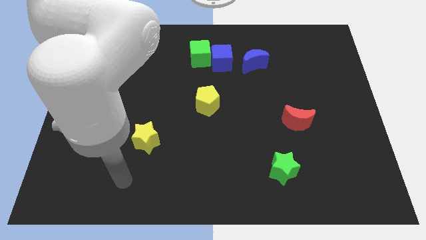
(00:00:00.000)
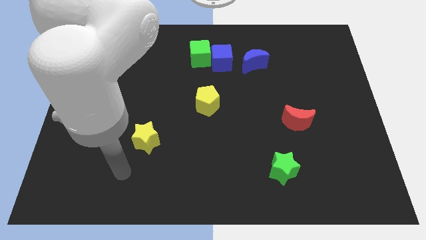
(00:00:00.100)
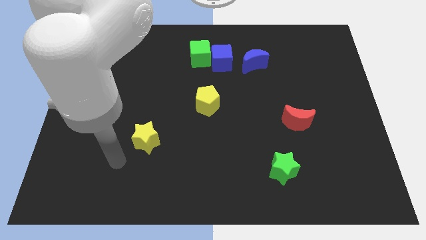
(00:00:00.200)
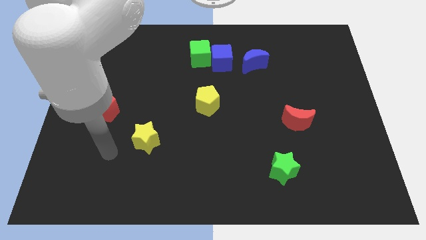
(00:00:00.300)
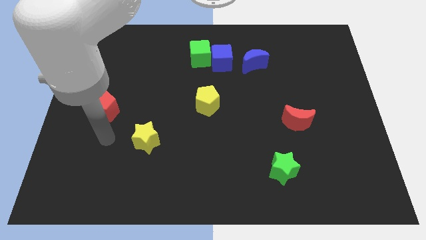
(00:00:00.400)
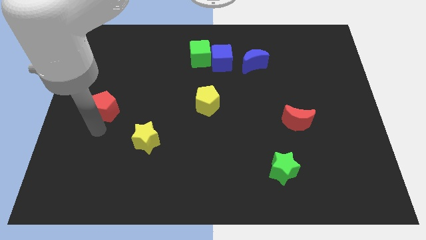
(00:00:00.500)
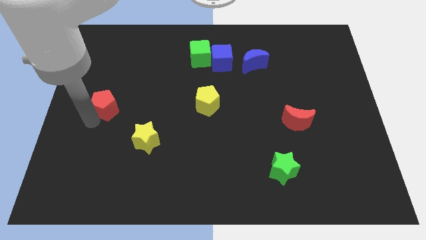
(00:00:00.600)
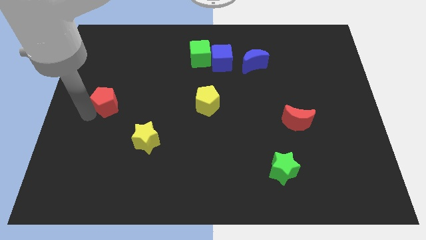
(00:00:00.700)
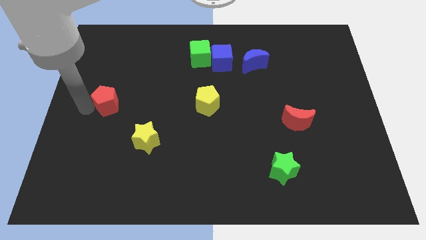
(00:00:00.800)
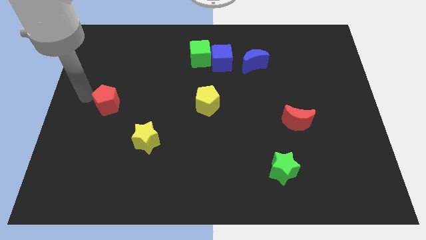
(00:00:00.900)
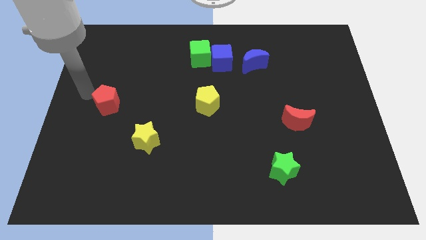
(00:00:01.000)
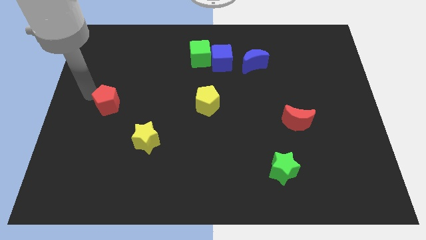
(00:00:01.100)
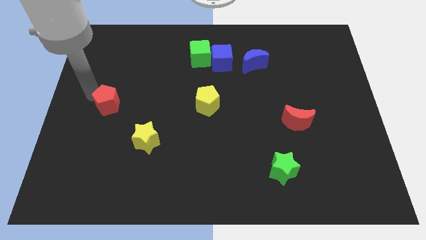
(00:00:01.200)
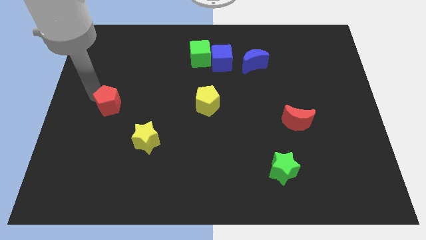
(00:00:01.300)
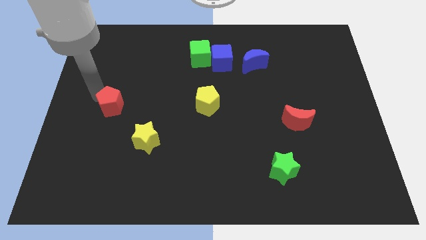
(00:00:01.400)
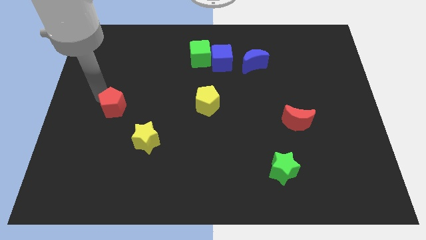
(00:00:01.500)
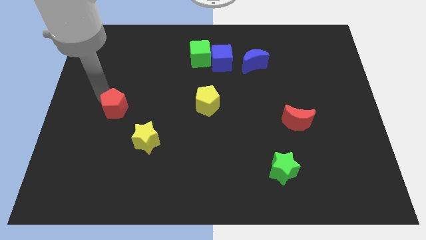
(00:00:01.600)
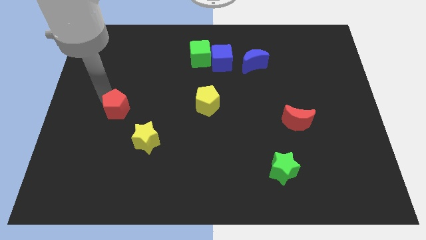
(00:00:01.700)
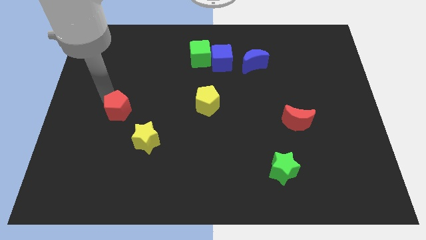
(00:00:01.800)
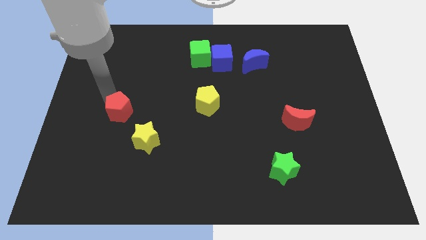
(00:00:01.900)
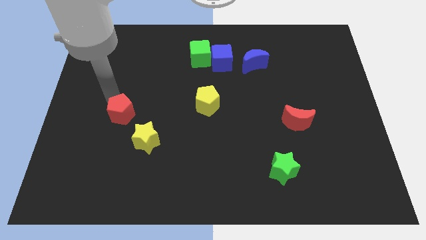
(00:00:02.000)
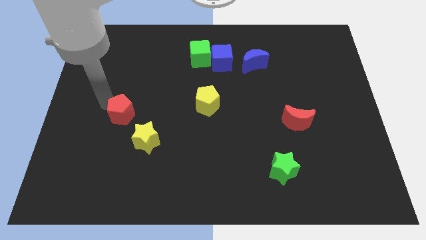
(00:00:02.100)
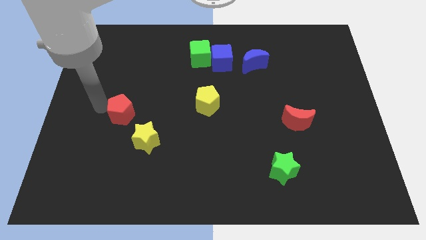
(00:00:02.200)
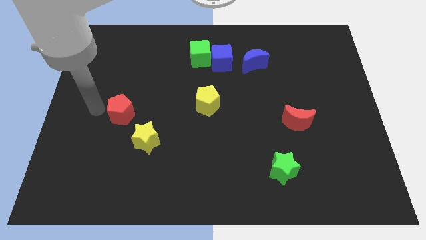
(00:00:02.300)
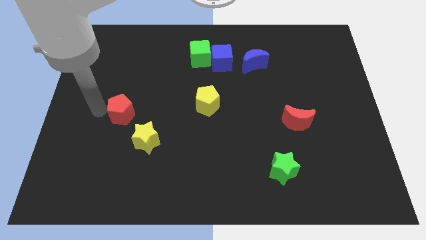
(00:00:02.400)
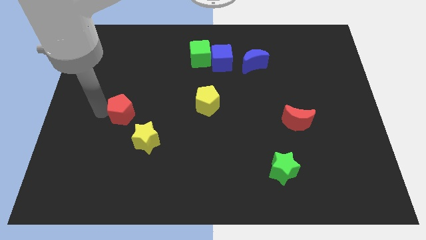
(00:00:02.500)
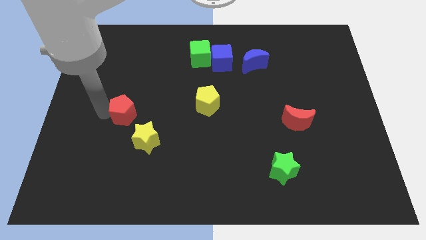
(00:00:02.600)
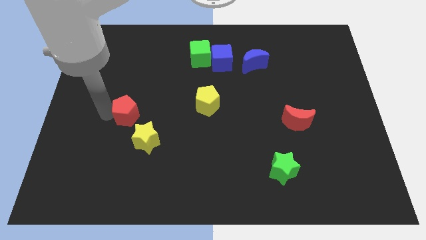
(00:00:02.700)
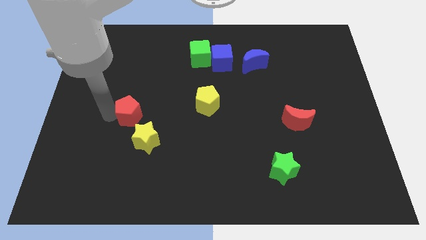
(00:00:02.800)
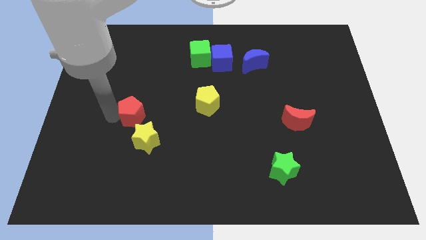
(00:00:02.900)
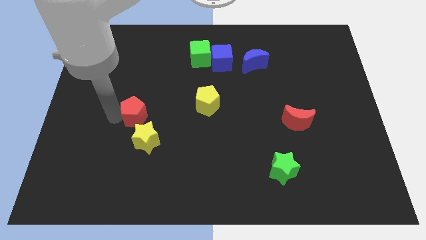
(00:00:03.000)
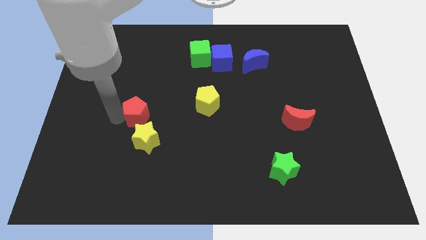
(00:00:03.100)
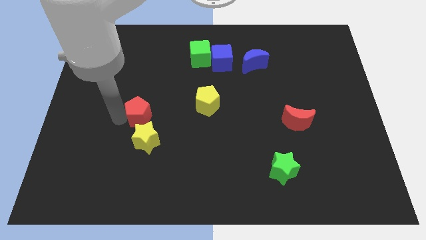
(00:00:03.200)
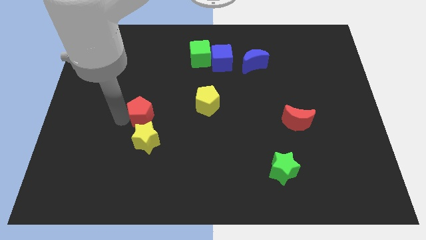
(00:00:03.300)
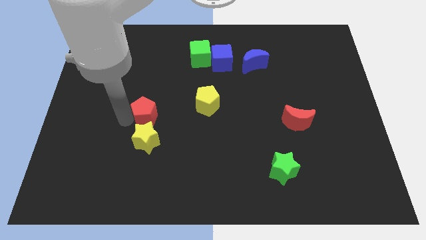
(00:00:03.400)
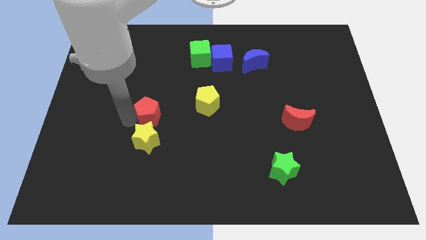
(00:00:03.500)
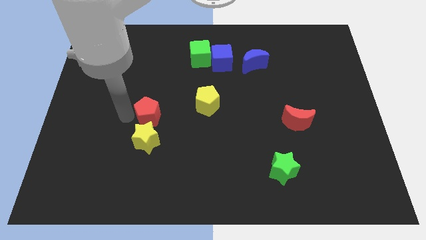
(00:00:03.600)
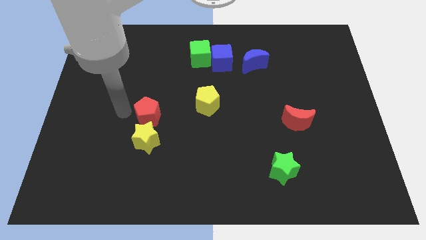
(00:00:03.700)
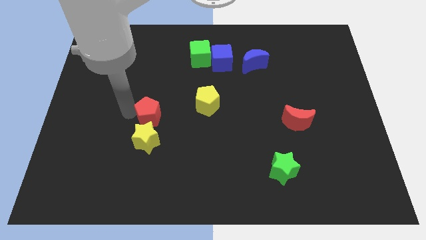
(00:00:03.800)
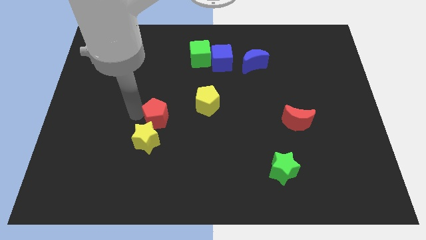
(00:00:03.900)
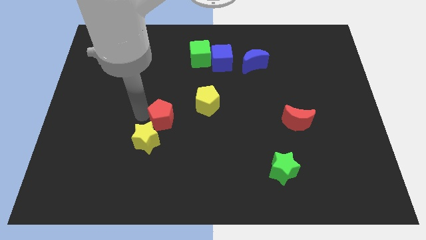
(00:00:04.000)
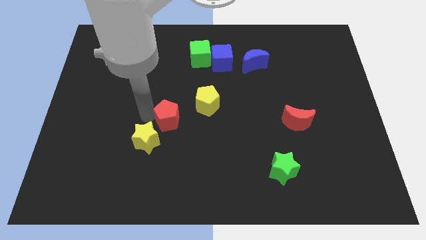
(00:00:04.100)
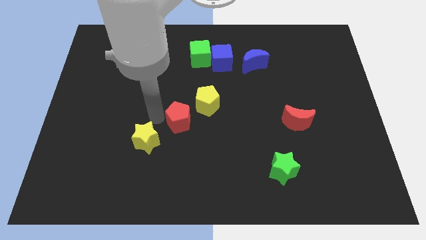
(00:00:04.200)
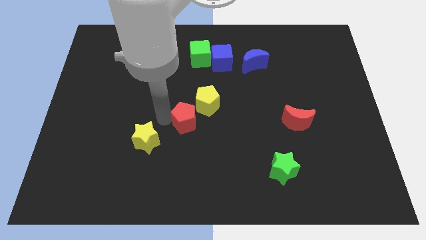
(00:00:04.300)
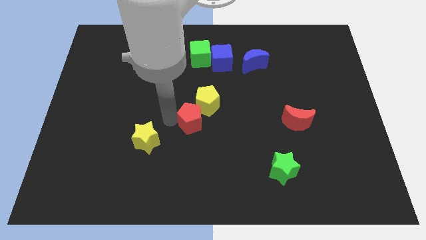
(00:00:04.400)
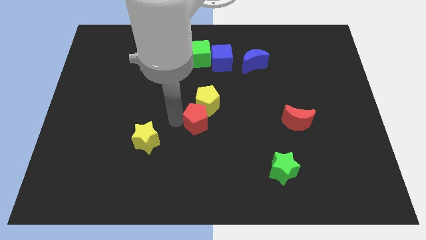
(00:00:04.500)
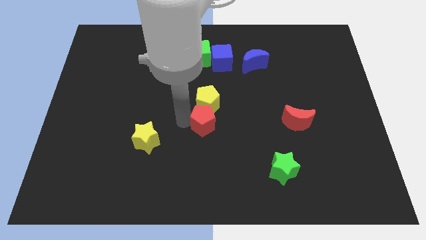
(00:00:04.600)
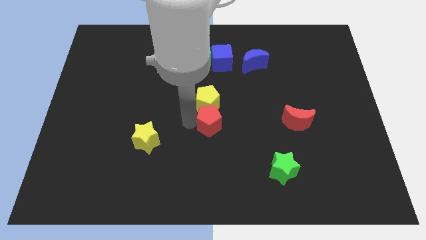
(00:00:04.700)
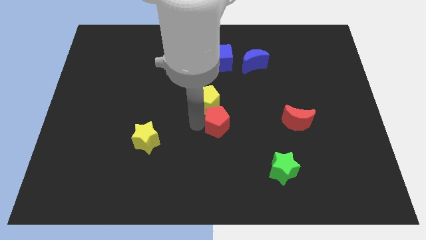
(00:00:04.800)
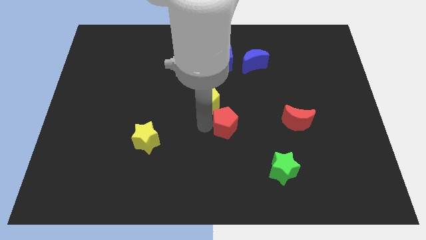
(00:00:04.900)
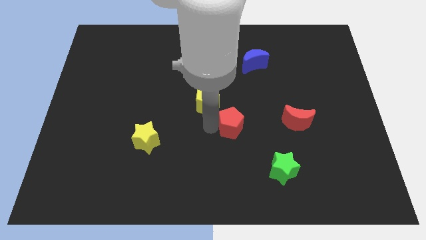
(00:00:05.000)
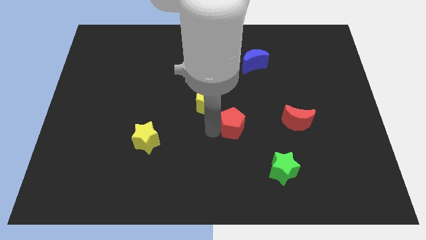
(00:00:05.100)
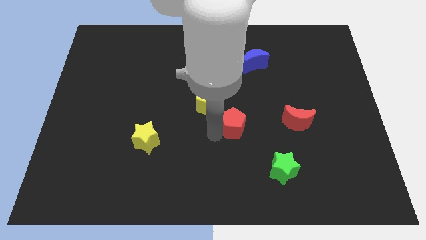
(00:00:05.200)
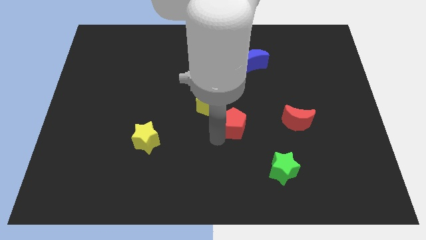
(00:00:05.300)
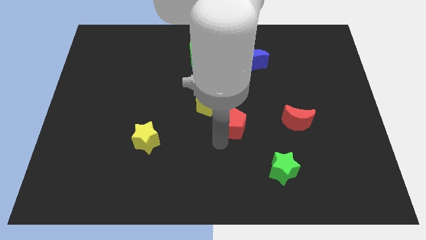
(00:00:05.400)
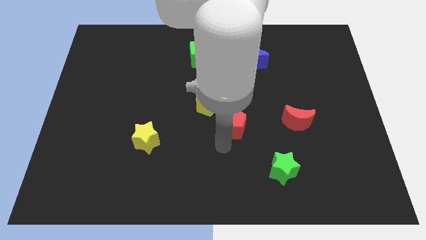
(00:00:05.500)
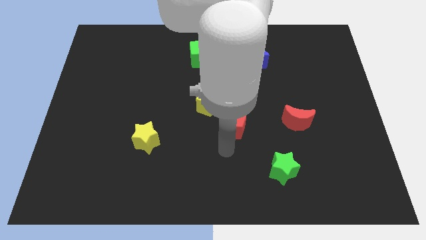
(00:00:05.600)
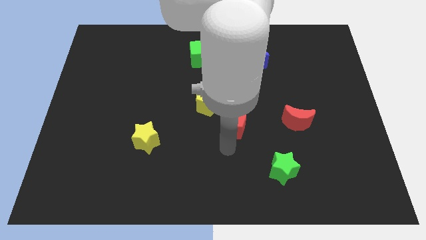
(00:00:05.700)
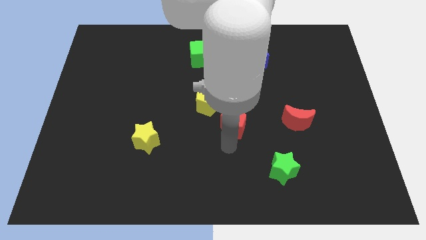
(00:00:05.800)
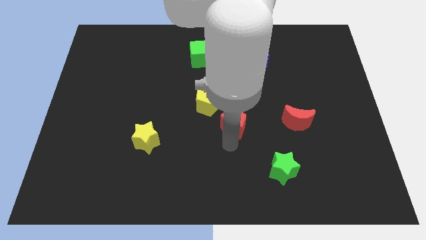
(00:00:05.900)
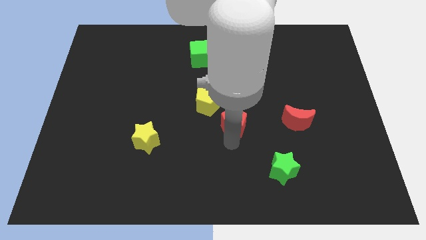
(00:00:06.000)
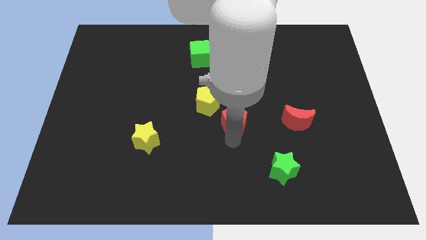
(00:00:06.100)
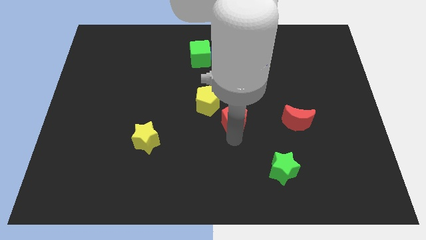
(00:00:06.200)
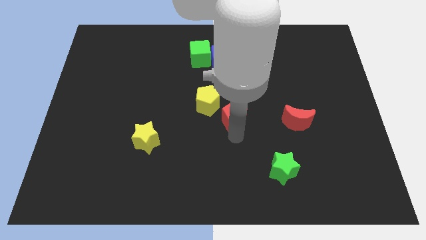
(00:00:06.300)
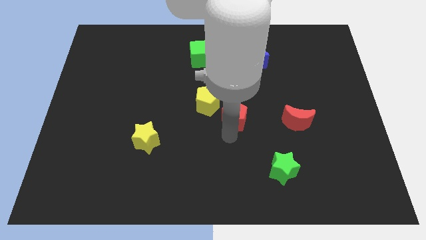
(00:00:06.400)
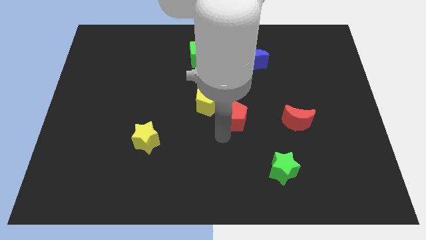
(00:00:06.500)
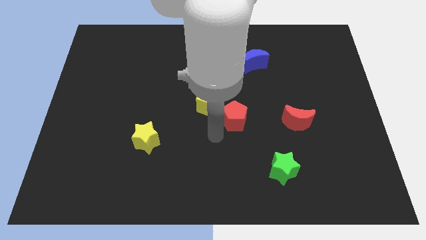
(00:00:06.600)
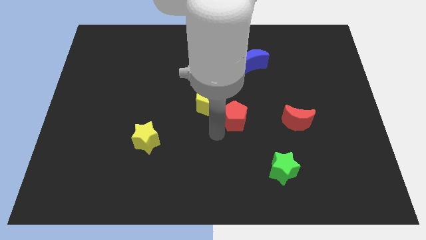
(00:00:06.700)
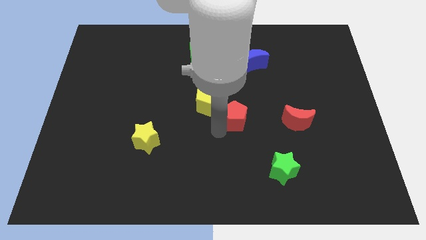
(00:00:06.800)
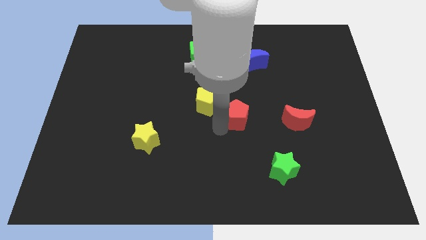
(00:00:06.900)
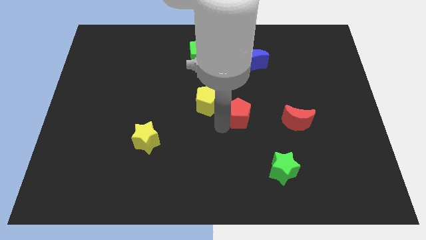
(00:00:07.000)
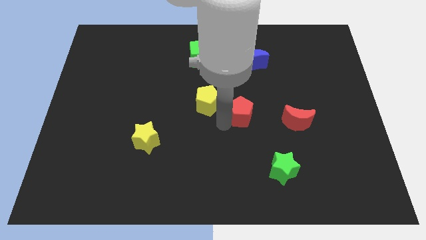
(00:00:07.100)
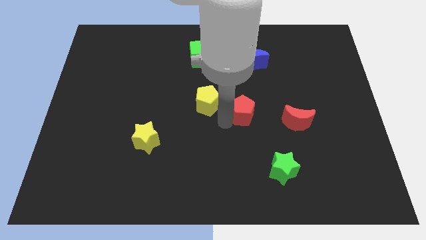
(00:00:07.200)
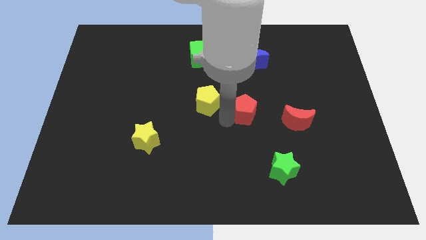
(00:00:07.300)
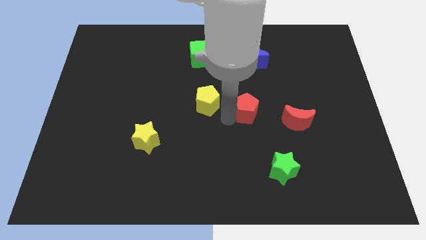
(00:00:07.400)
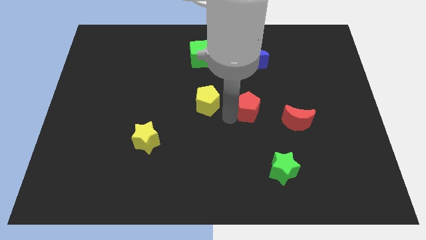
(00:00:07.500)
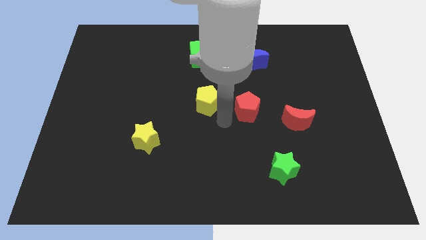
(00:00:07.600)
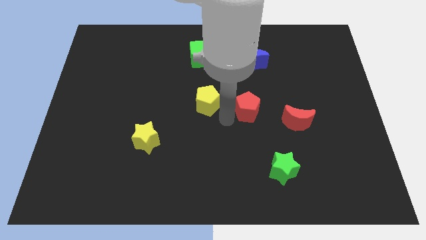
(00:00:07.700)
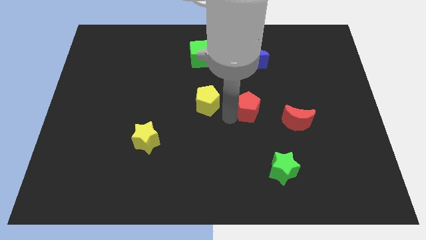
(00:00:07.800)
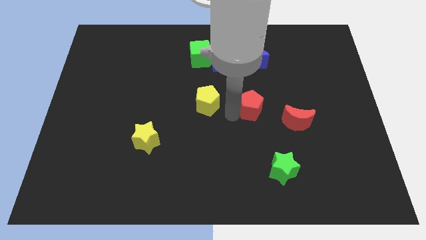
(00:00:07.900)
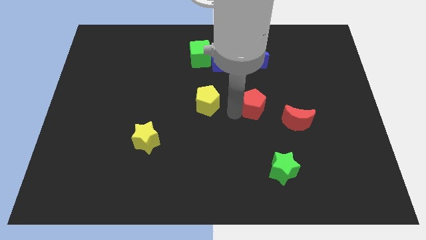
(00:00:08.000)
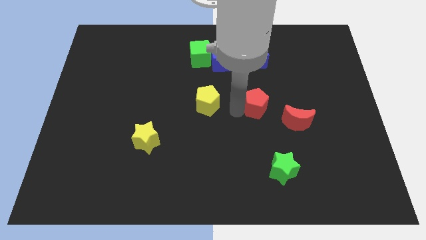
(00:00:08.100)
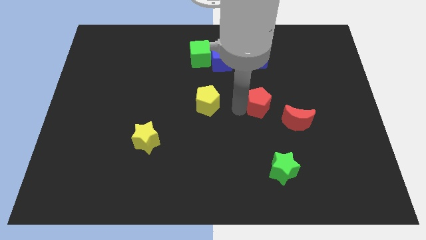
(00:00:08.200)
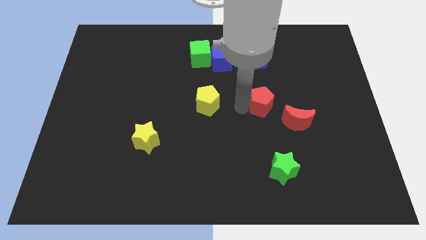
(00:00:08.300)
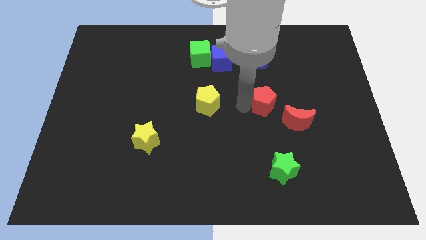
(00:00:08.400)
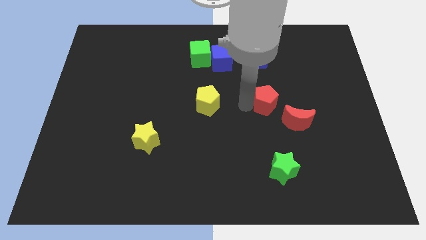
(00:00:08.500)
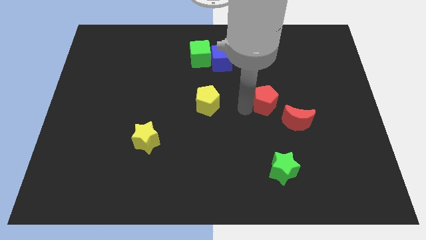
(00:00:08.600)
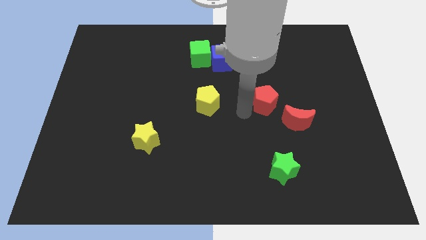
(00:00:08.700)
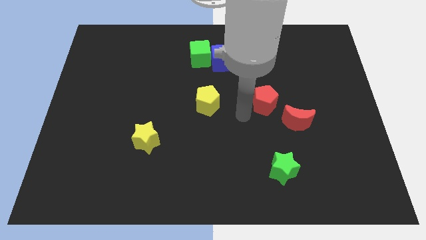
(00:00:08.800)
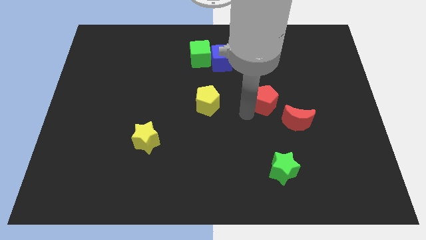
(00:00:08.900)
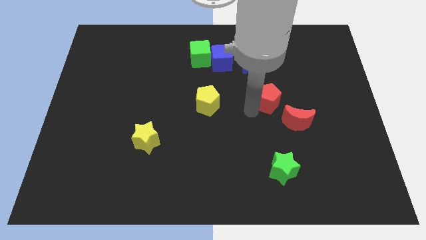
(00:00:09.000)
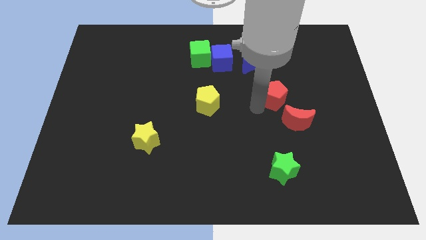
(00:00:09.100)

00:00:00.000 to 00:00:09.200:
slide the red pentagon to the top side of the red moon
